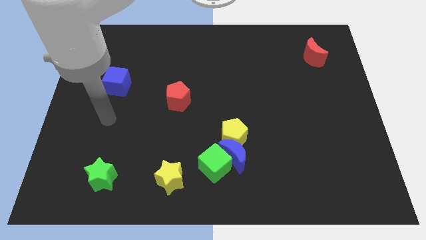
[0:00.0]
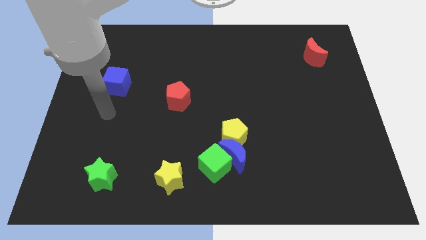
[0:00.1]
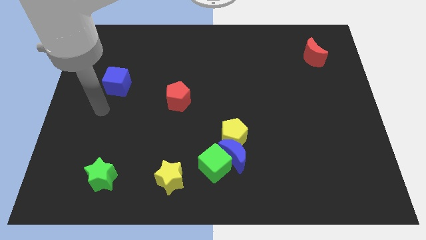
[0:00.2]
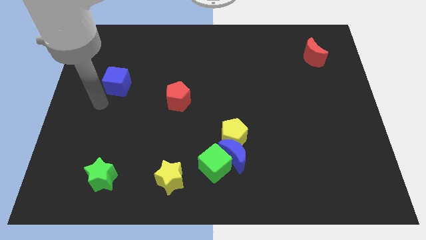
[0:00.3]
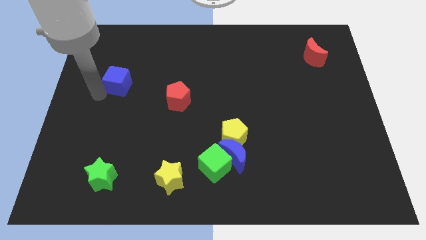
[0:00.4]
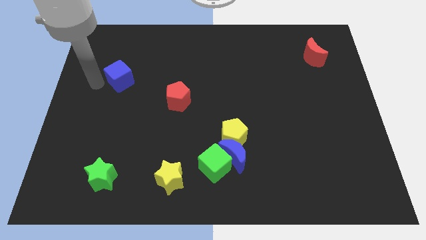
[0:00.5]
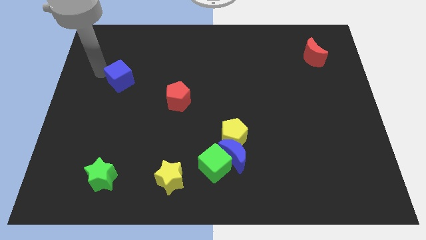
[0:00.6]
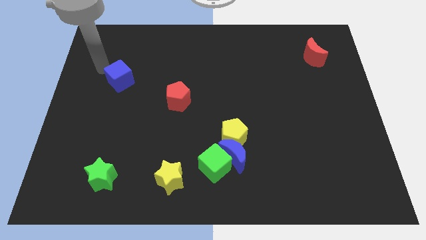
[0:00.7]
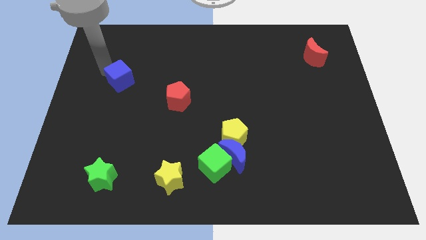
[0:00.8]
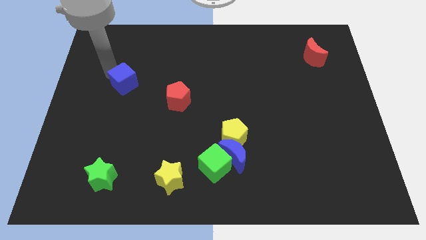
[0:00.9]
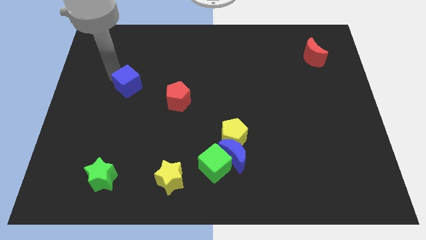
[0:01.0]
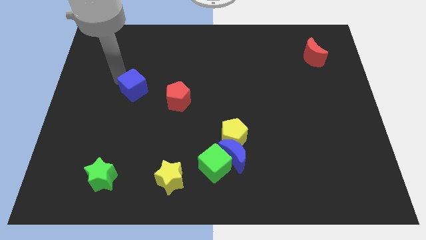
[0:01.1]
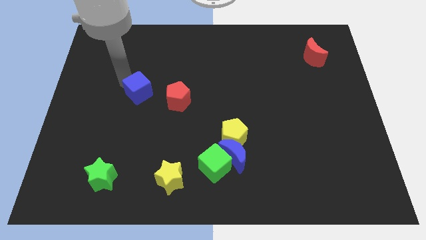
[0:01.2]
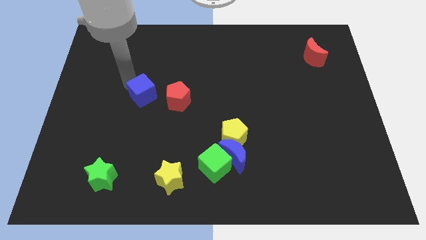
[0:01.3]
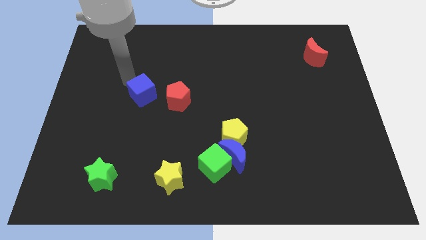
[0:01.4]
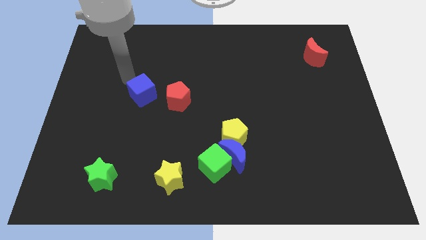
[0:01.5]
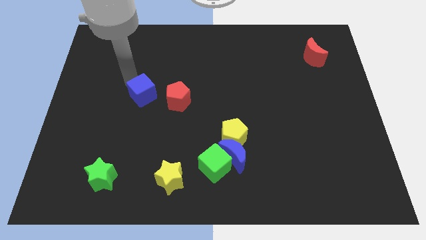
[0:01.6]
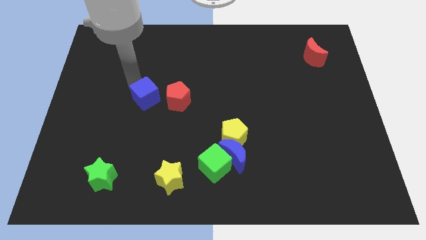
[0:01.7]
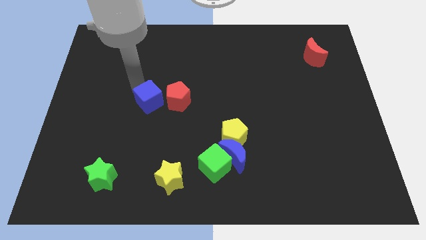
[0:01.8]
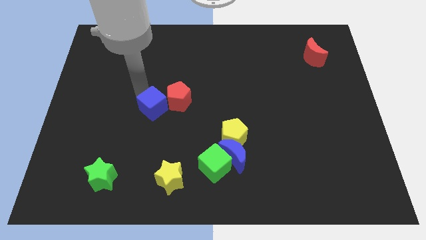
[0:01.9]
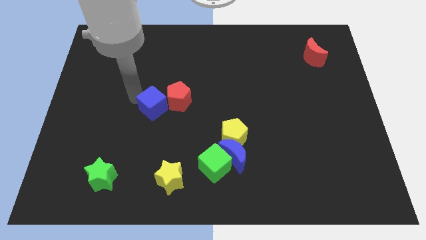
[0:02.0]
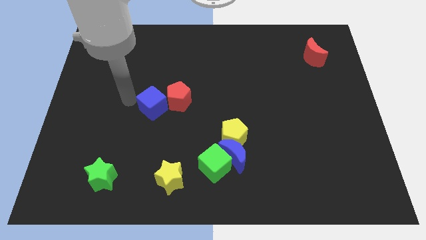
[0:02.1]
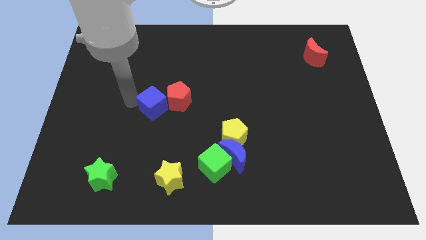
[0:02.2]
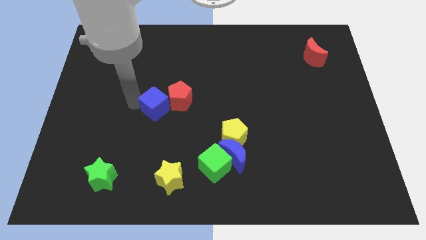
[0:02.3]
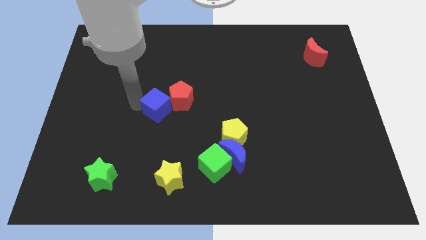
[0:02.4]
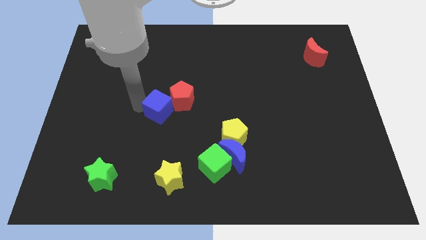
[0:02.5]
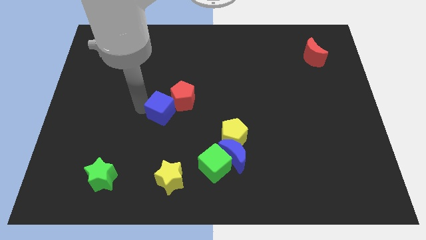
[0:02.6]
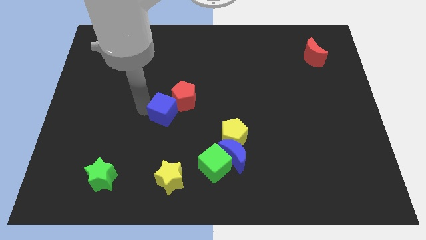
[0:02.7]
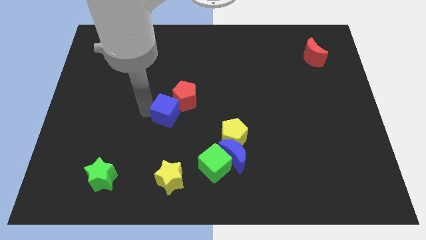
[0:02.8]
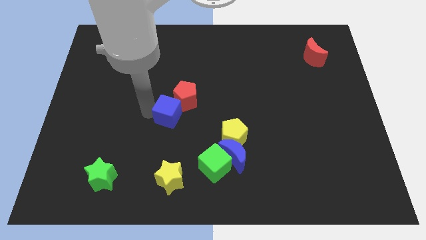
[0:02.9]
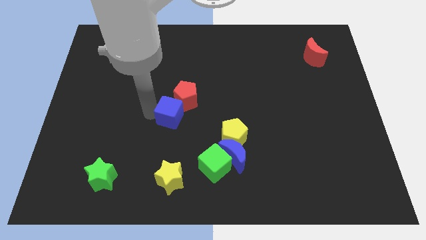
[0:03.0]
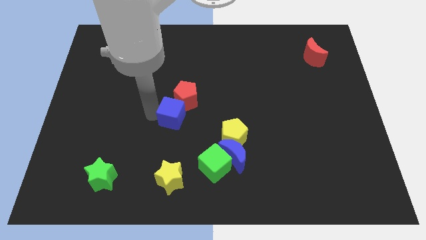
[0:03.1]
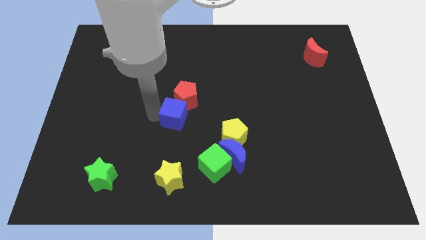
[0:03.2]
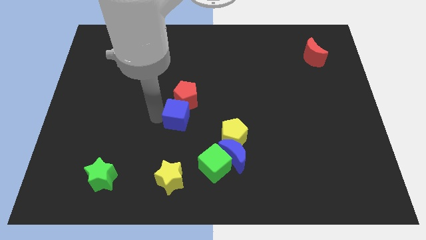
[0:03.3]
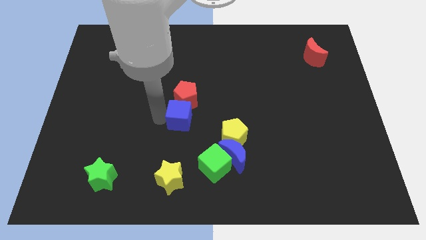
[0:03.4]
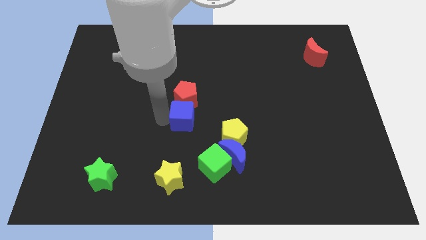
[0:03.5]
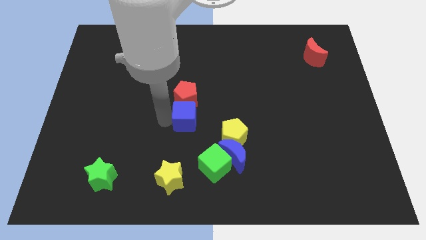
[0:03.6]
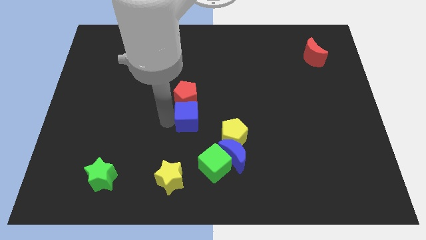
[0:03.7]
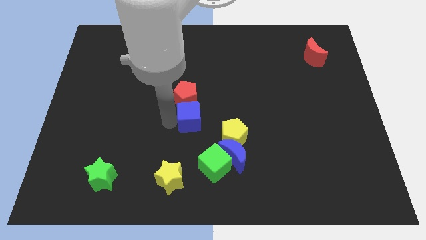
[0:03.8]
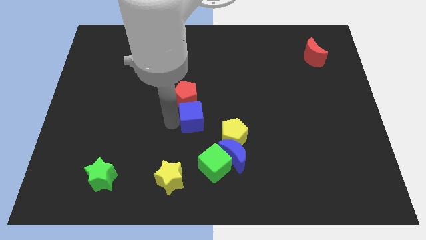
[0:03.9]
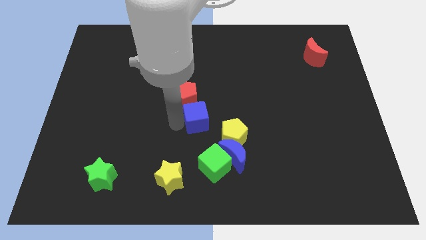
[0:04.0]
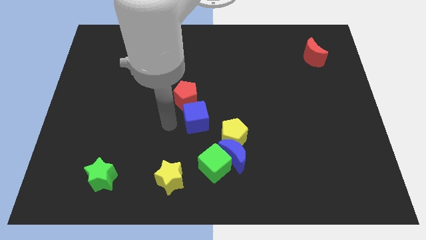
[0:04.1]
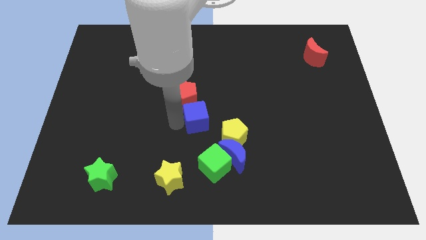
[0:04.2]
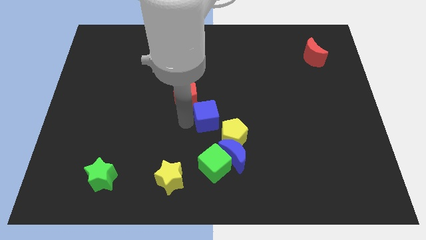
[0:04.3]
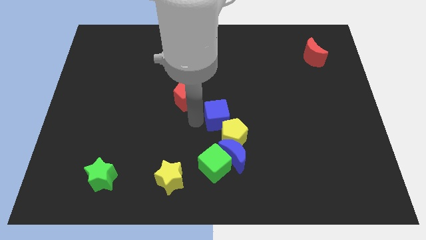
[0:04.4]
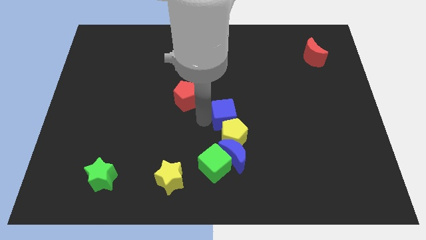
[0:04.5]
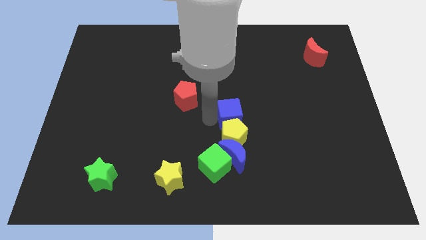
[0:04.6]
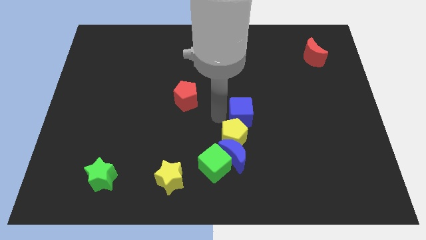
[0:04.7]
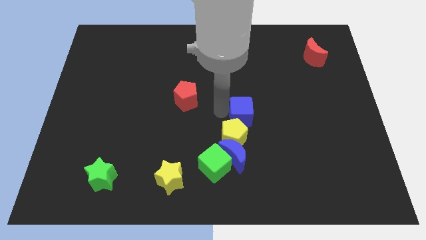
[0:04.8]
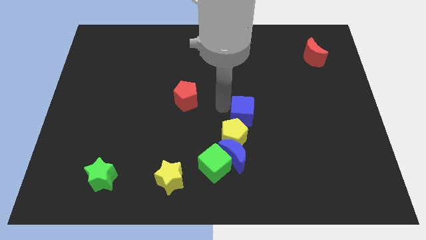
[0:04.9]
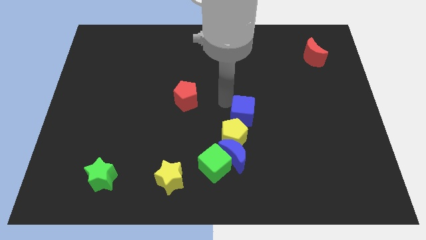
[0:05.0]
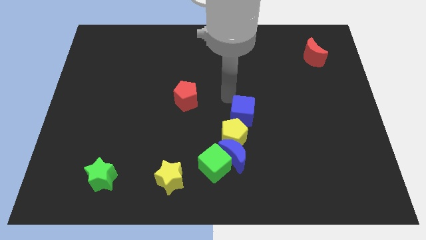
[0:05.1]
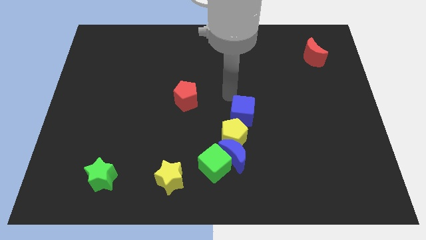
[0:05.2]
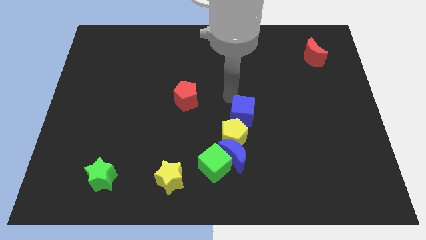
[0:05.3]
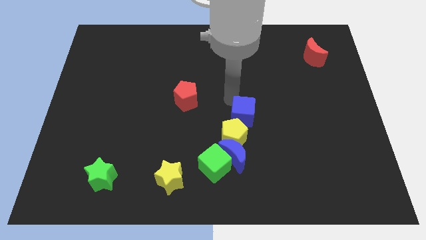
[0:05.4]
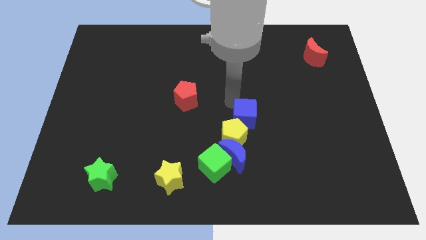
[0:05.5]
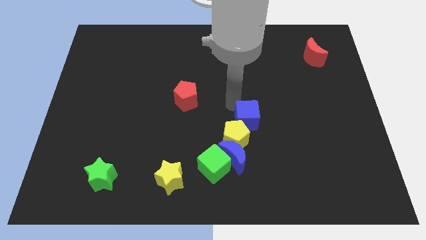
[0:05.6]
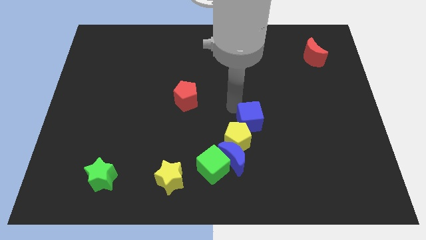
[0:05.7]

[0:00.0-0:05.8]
push the blue cube diagonally up and to the right of the blue moon

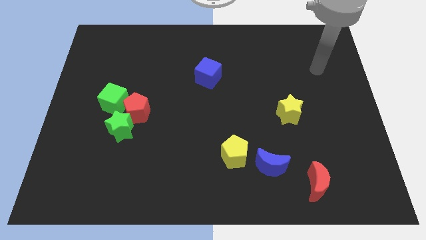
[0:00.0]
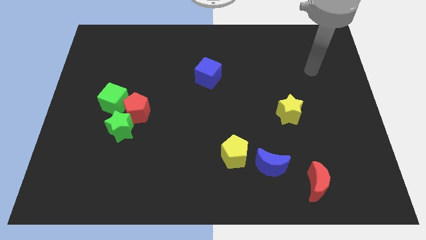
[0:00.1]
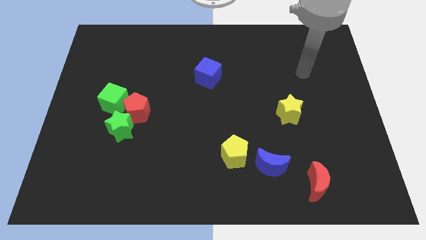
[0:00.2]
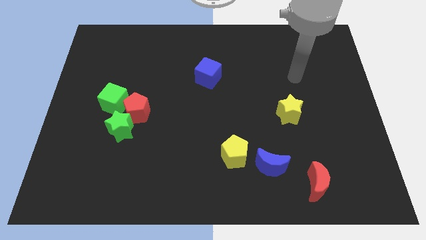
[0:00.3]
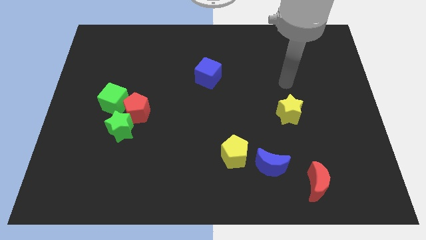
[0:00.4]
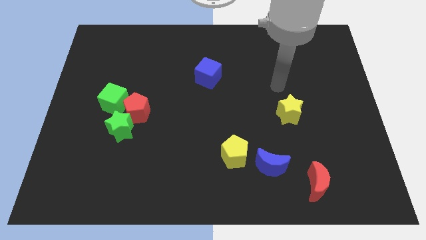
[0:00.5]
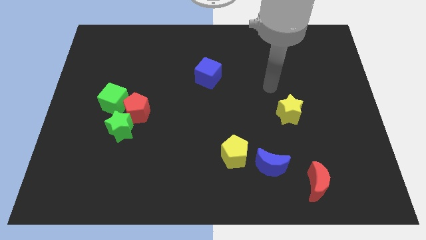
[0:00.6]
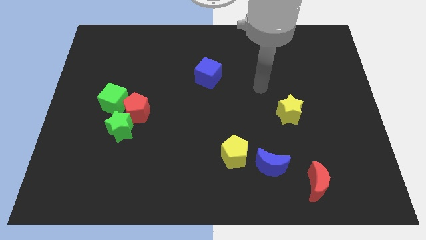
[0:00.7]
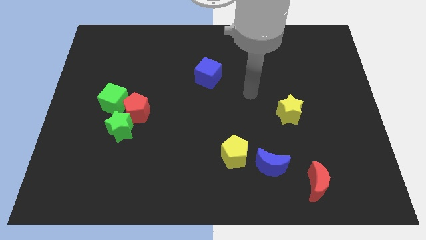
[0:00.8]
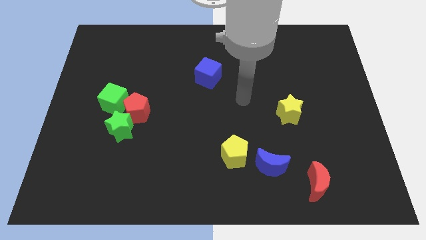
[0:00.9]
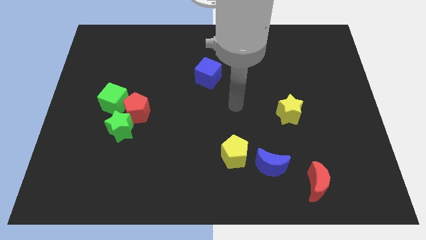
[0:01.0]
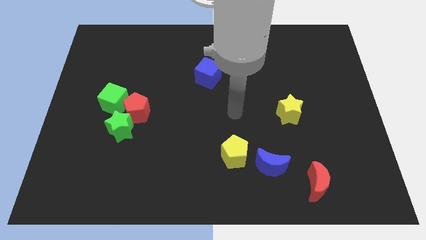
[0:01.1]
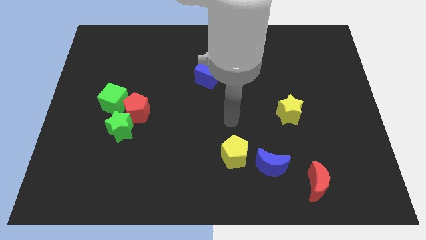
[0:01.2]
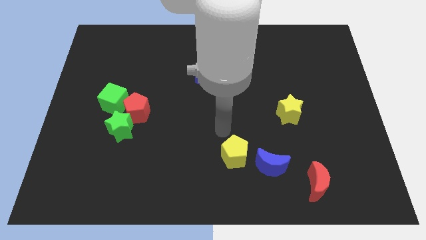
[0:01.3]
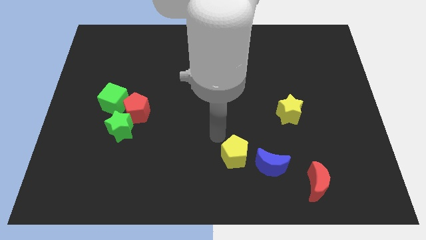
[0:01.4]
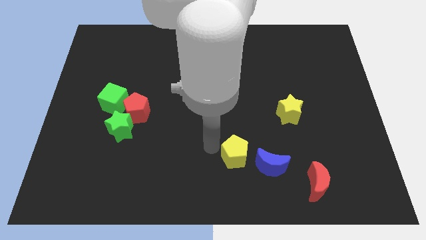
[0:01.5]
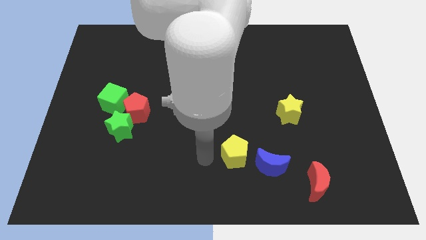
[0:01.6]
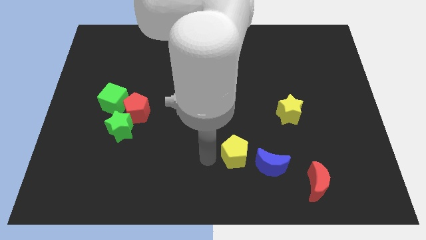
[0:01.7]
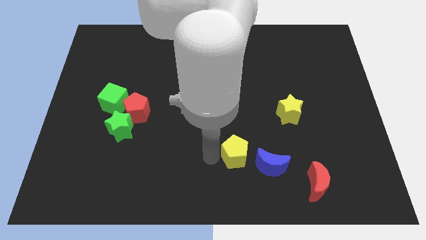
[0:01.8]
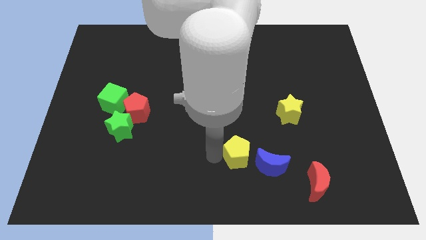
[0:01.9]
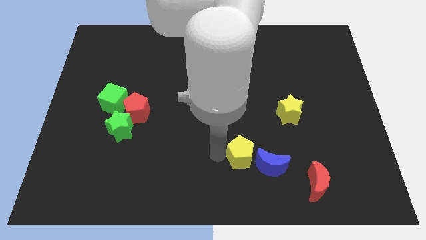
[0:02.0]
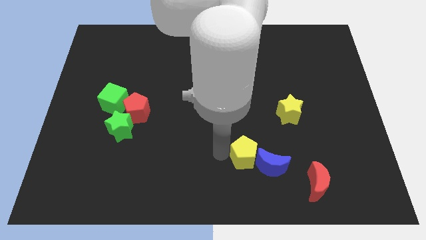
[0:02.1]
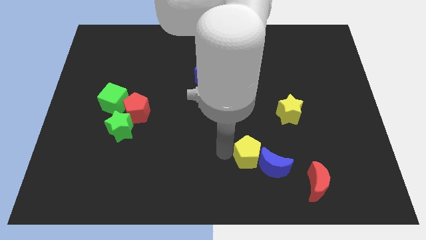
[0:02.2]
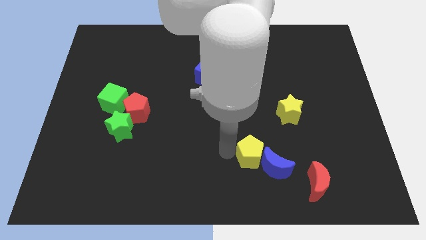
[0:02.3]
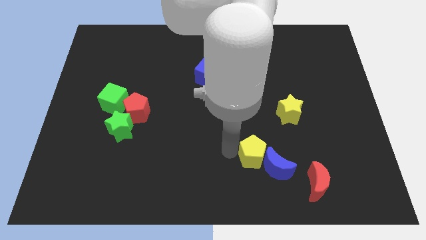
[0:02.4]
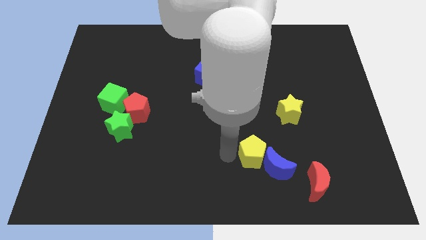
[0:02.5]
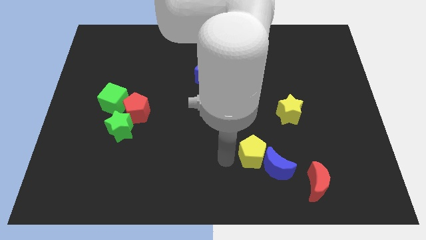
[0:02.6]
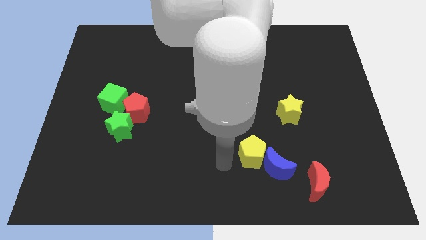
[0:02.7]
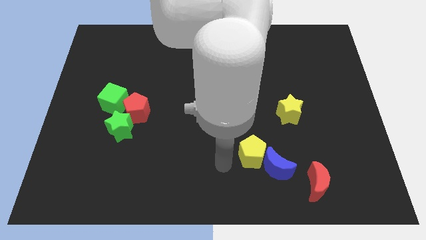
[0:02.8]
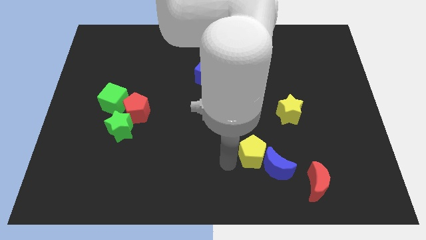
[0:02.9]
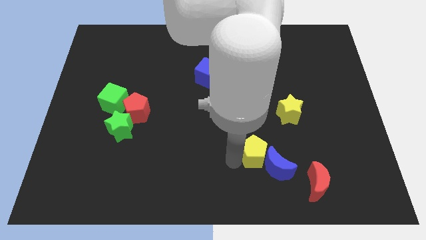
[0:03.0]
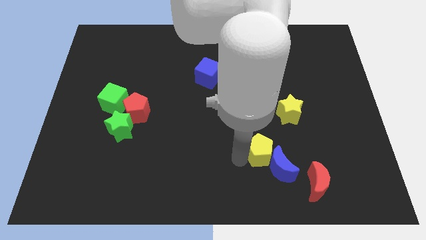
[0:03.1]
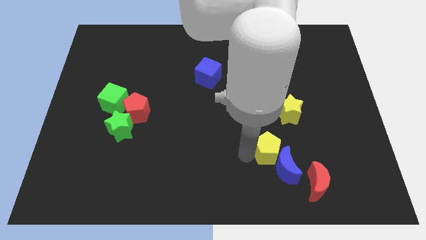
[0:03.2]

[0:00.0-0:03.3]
move the yellow pentagon to the top left side of the red moon
